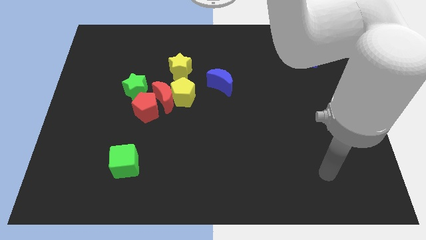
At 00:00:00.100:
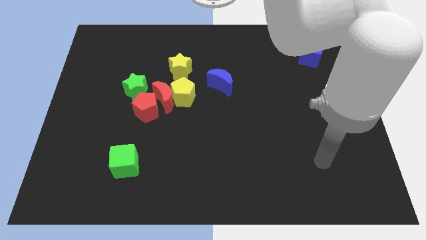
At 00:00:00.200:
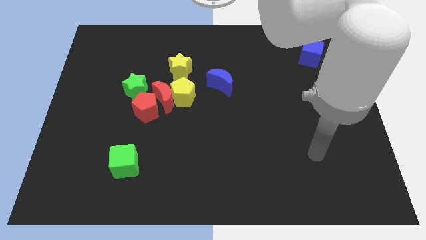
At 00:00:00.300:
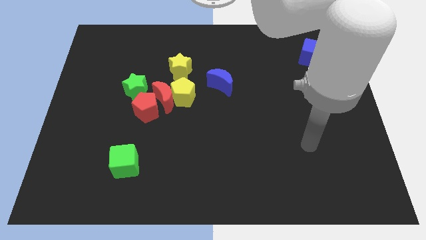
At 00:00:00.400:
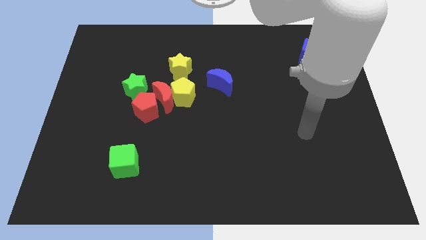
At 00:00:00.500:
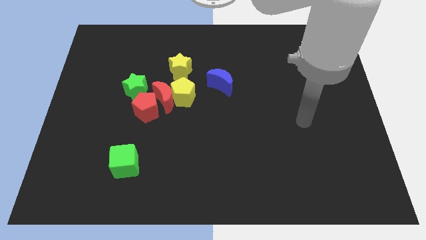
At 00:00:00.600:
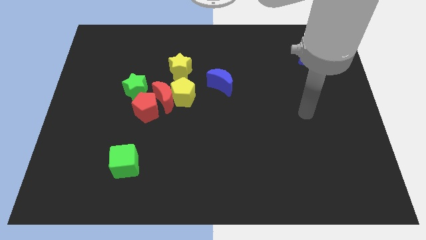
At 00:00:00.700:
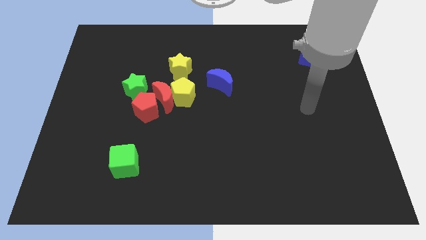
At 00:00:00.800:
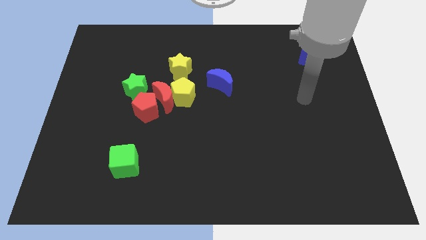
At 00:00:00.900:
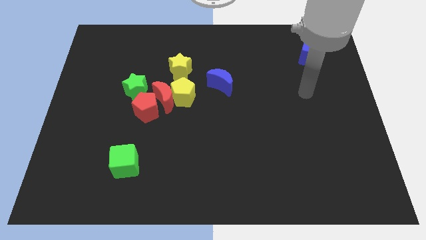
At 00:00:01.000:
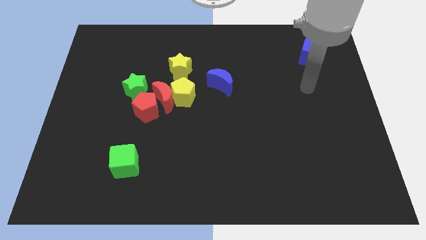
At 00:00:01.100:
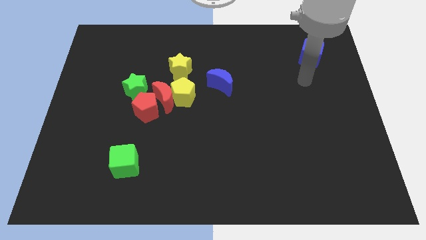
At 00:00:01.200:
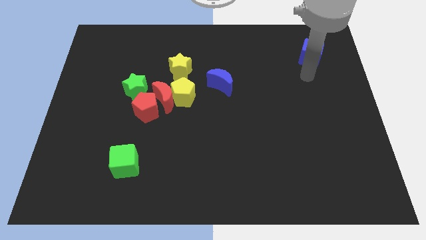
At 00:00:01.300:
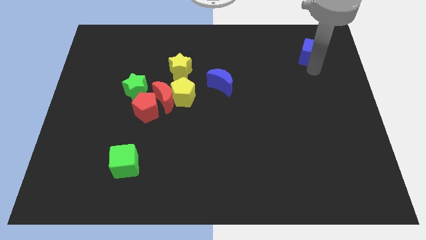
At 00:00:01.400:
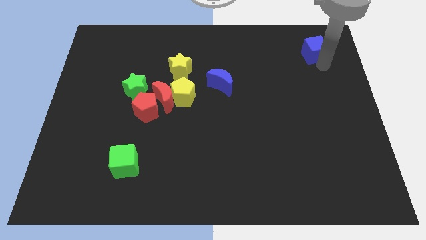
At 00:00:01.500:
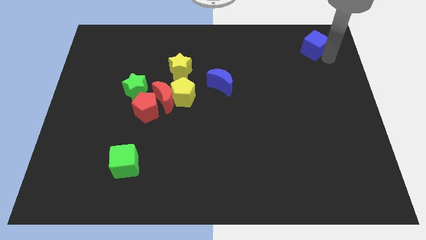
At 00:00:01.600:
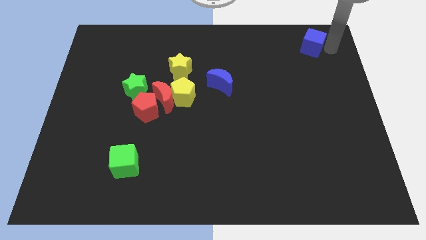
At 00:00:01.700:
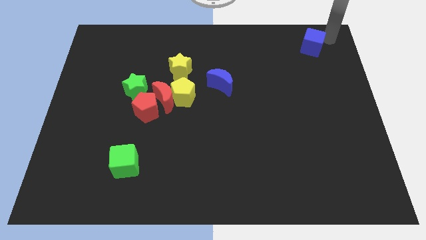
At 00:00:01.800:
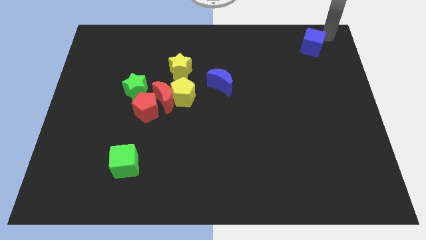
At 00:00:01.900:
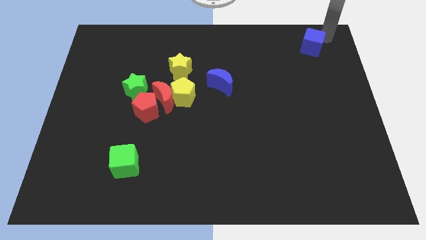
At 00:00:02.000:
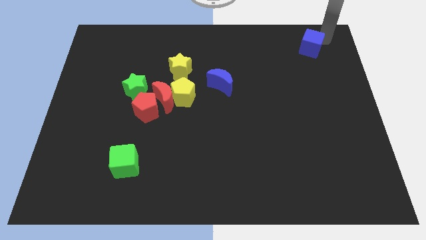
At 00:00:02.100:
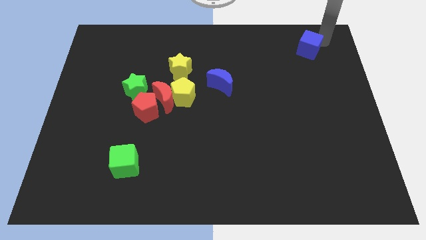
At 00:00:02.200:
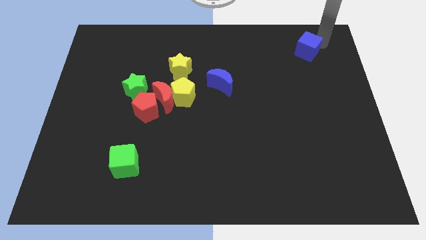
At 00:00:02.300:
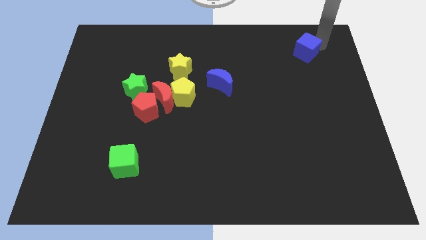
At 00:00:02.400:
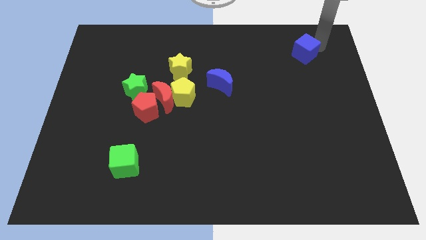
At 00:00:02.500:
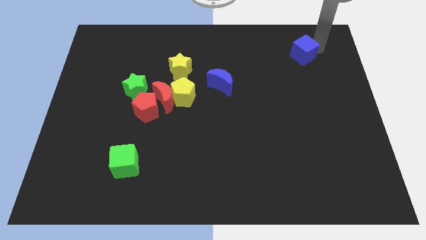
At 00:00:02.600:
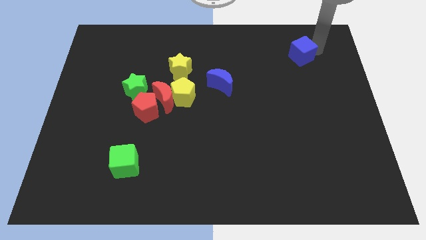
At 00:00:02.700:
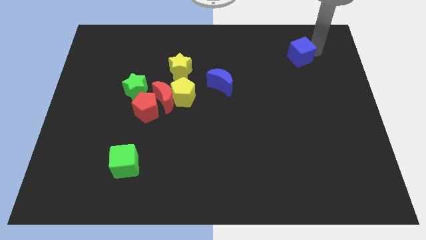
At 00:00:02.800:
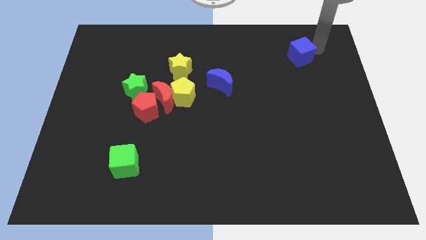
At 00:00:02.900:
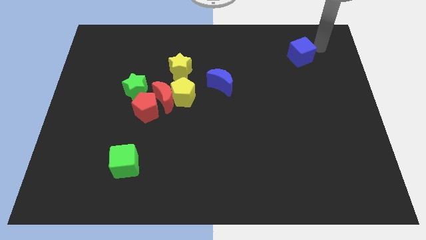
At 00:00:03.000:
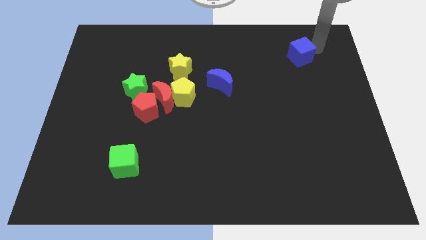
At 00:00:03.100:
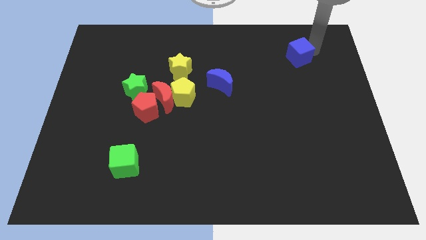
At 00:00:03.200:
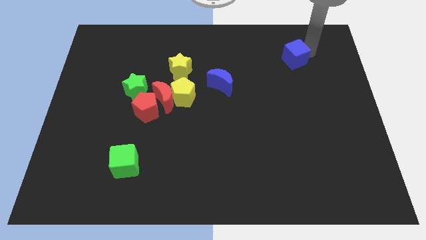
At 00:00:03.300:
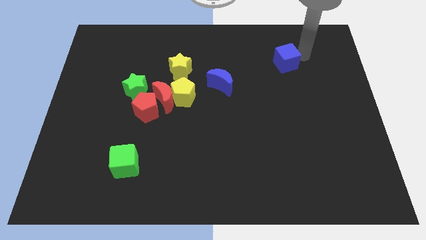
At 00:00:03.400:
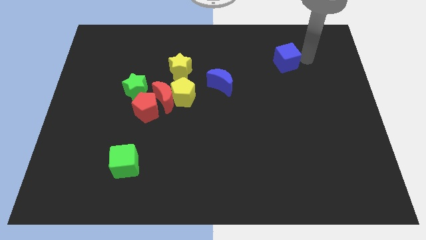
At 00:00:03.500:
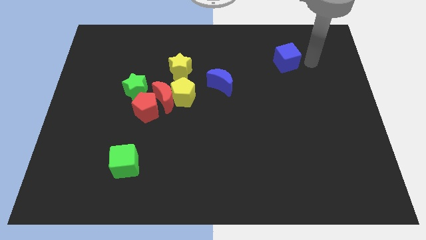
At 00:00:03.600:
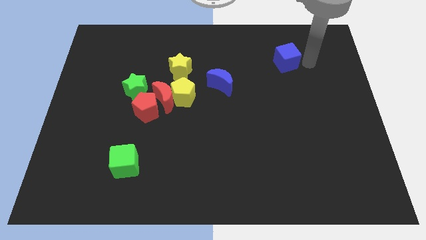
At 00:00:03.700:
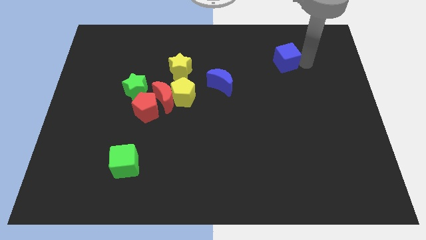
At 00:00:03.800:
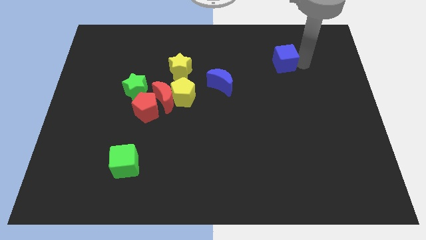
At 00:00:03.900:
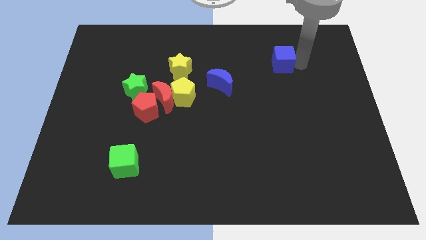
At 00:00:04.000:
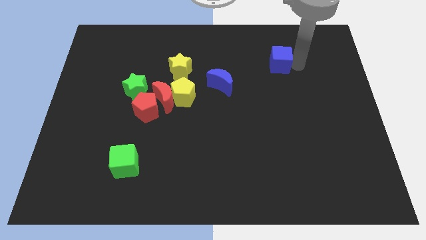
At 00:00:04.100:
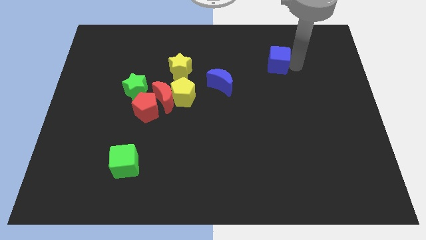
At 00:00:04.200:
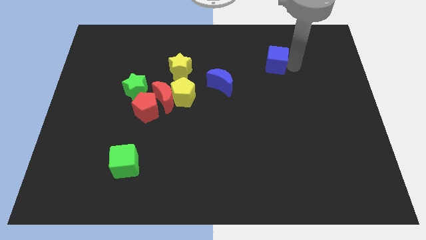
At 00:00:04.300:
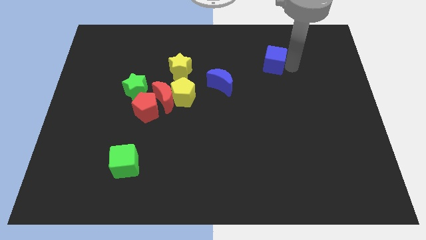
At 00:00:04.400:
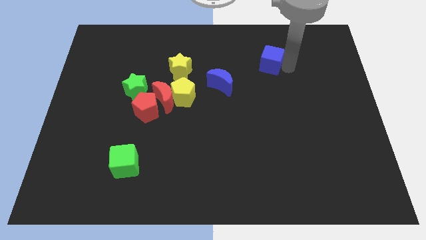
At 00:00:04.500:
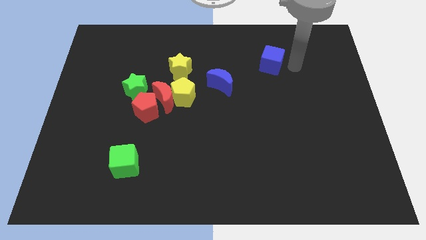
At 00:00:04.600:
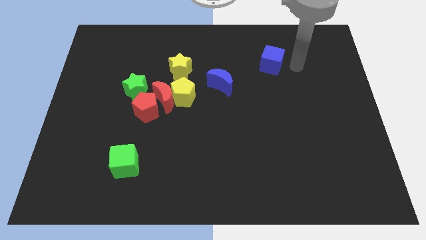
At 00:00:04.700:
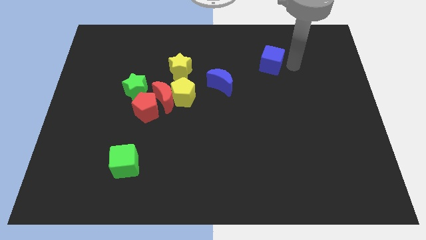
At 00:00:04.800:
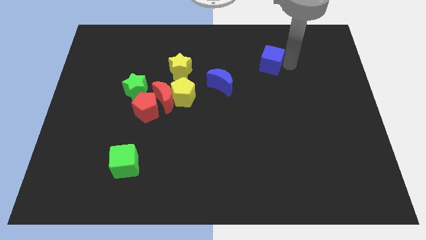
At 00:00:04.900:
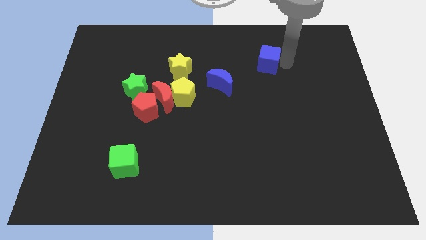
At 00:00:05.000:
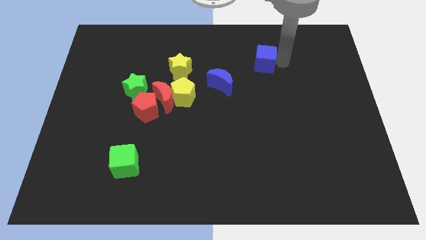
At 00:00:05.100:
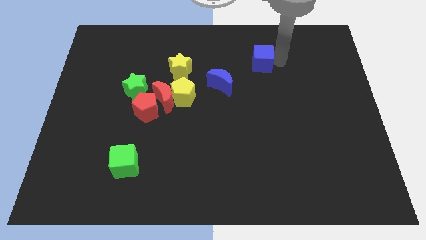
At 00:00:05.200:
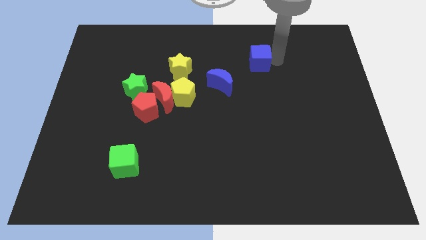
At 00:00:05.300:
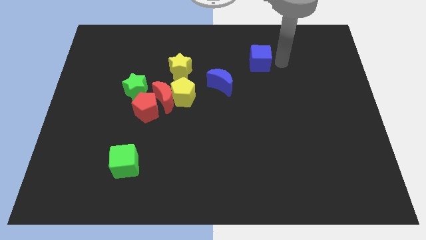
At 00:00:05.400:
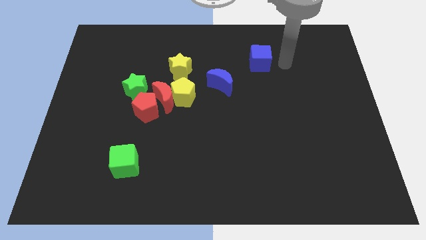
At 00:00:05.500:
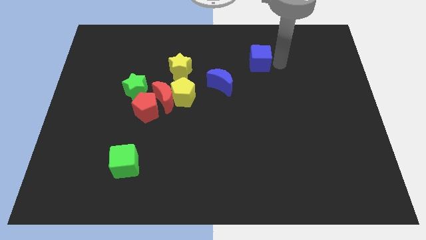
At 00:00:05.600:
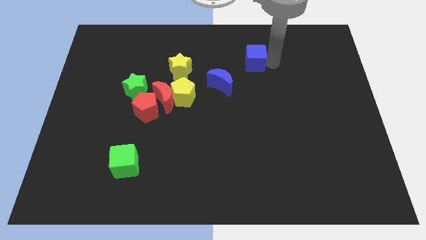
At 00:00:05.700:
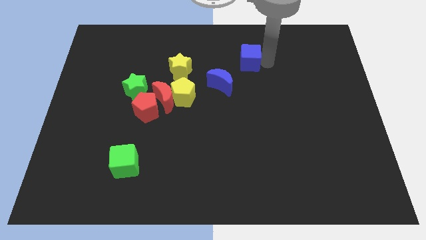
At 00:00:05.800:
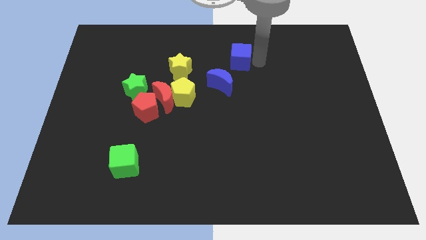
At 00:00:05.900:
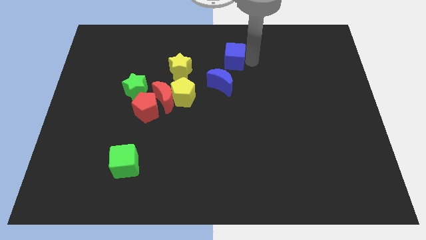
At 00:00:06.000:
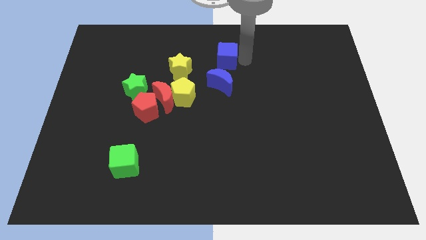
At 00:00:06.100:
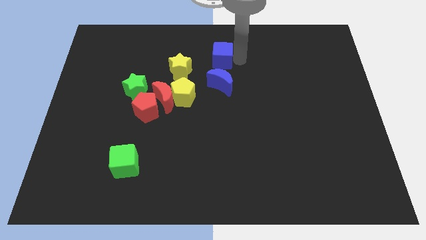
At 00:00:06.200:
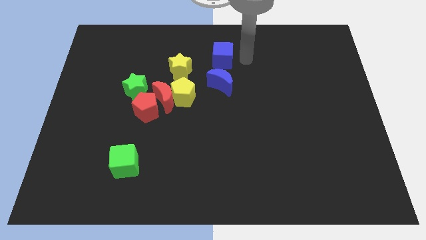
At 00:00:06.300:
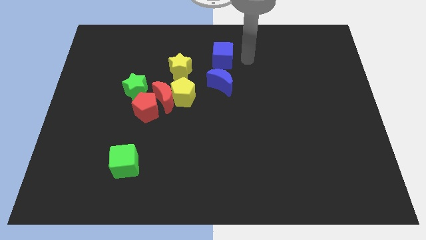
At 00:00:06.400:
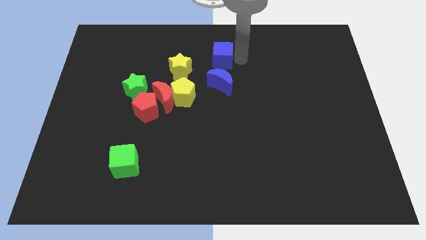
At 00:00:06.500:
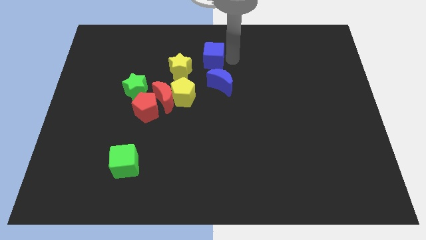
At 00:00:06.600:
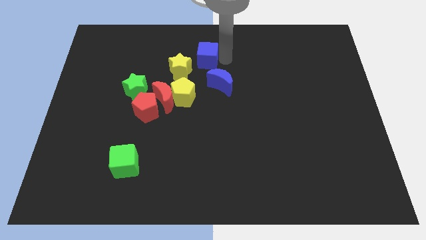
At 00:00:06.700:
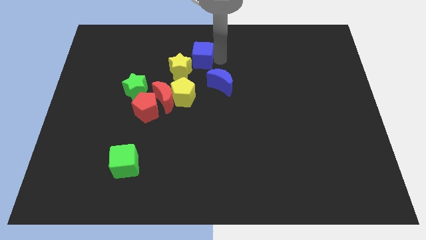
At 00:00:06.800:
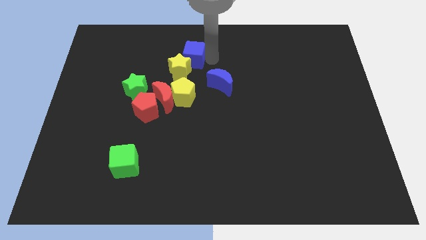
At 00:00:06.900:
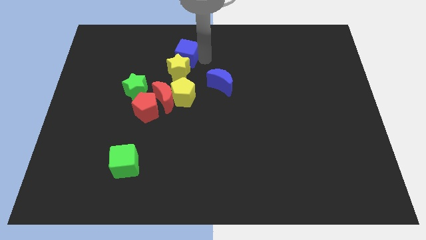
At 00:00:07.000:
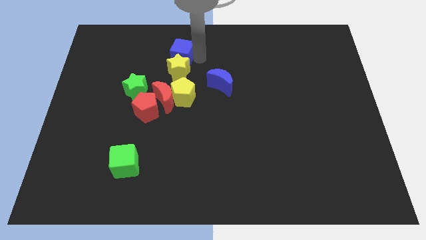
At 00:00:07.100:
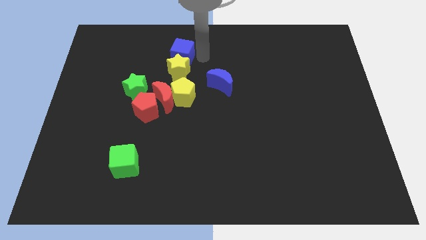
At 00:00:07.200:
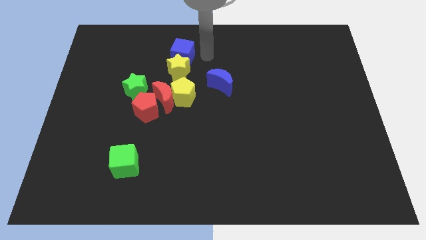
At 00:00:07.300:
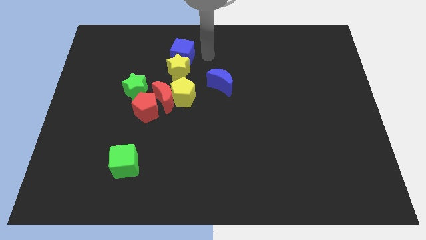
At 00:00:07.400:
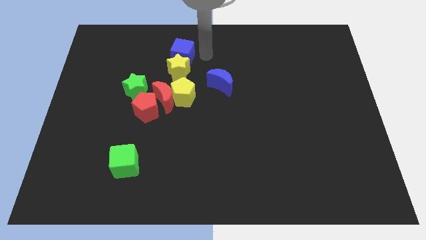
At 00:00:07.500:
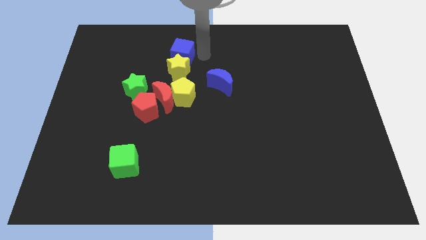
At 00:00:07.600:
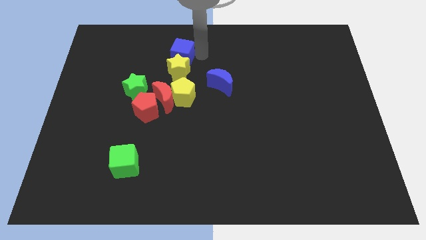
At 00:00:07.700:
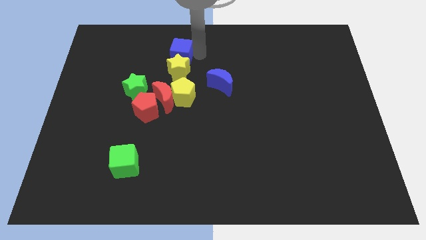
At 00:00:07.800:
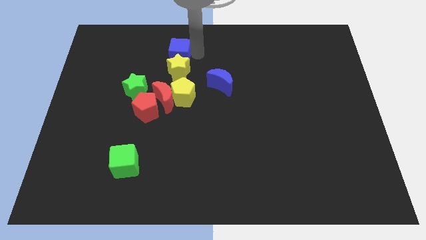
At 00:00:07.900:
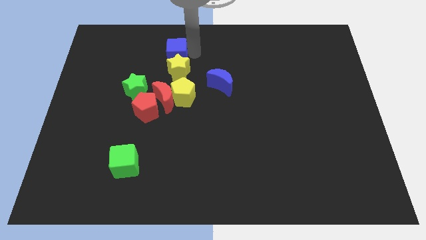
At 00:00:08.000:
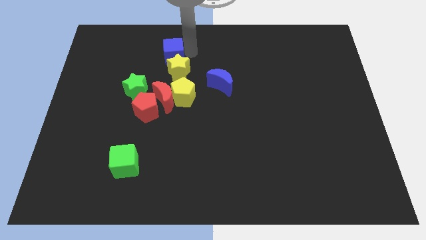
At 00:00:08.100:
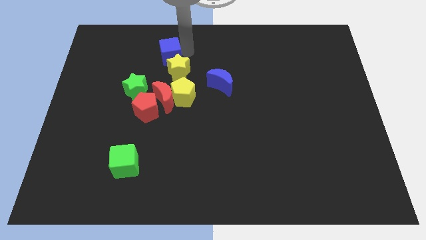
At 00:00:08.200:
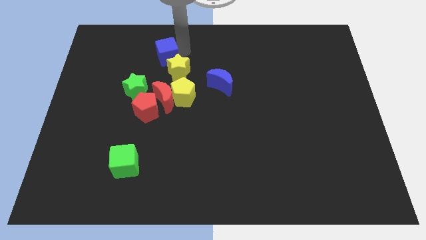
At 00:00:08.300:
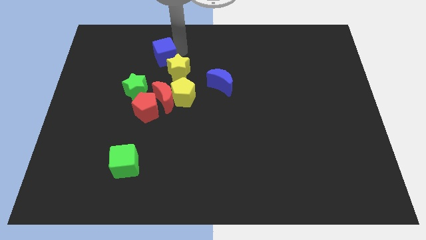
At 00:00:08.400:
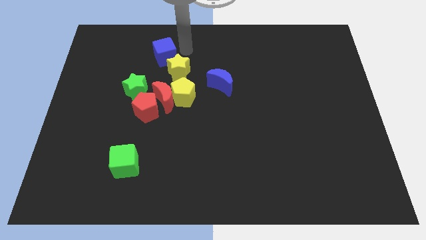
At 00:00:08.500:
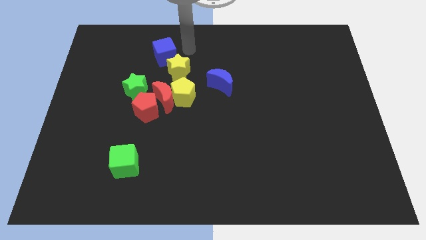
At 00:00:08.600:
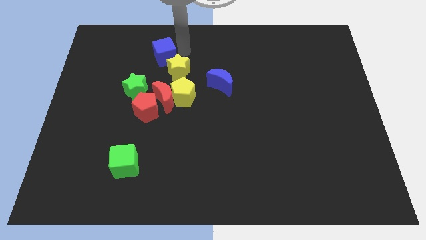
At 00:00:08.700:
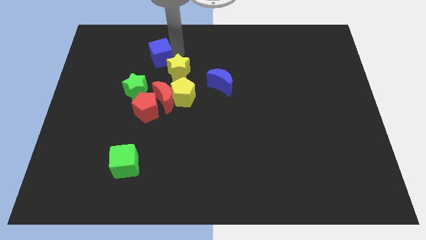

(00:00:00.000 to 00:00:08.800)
slide the blue cube to the top of the green star
